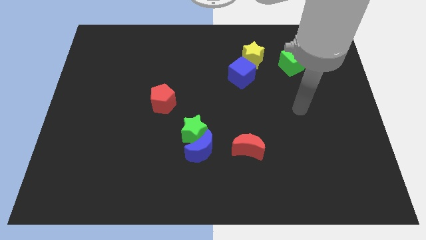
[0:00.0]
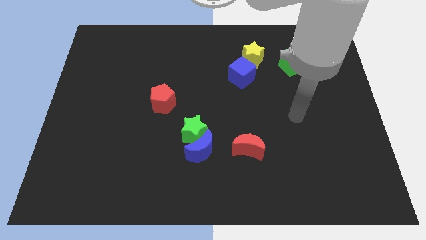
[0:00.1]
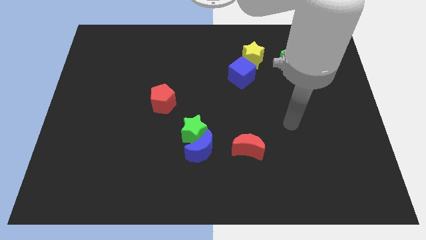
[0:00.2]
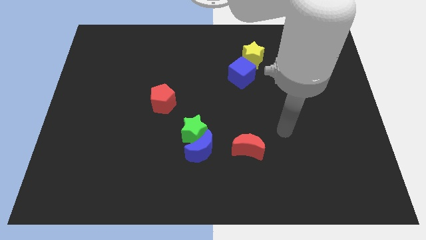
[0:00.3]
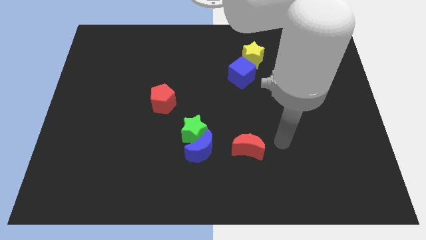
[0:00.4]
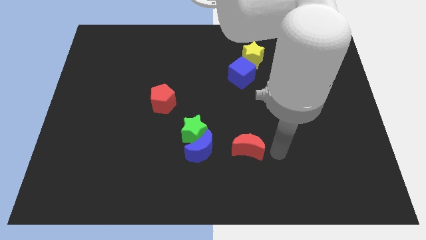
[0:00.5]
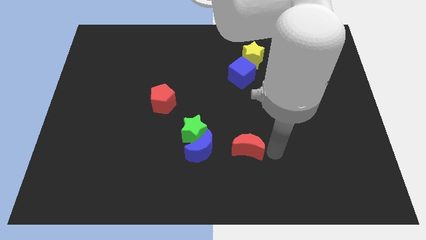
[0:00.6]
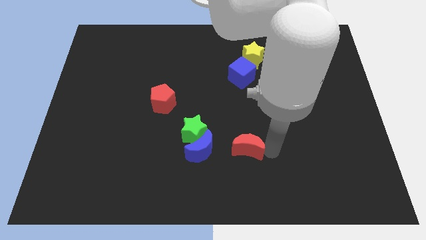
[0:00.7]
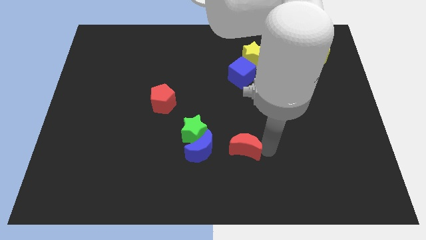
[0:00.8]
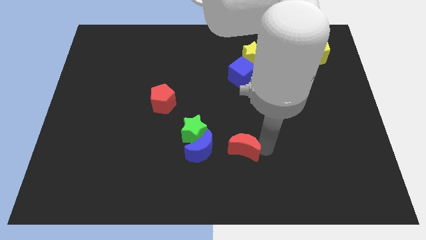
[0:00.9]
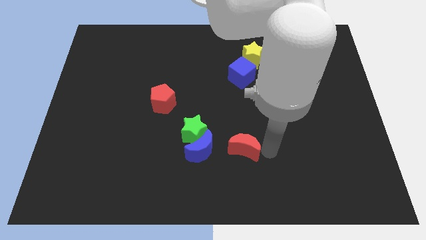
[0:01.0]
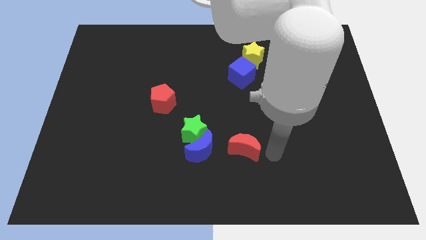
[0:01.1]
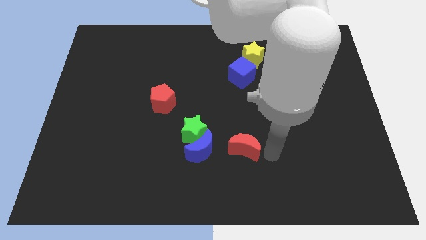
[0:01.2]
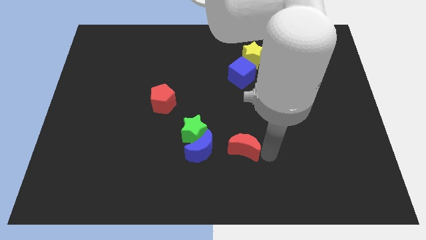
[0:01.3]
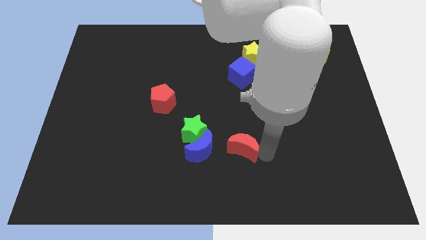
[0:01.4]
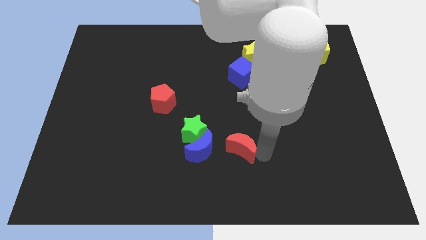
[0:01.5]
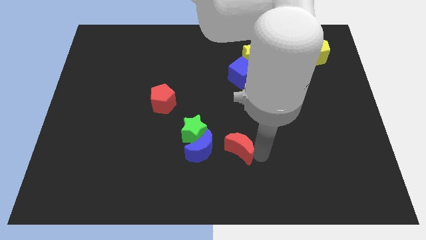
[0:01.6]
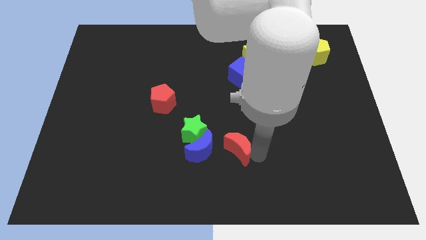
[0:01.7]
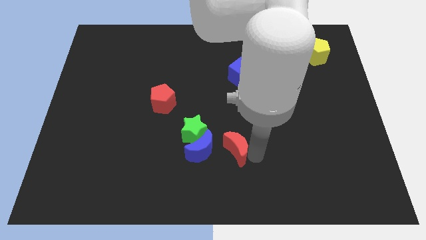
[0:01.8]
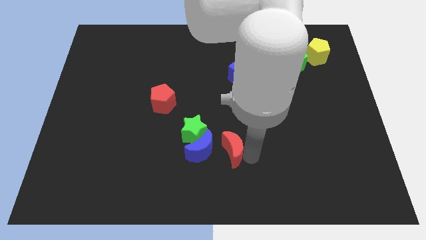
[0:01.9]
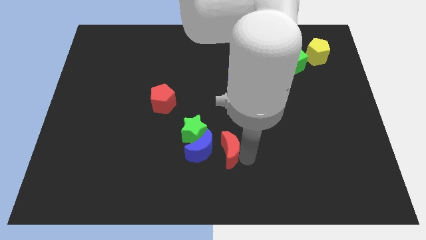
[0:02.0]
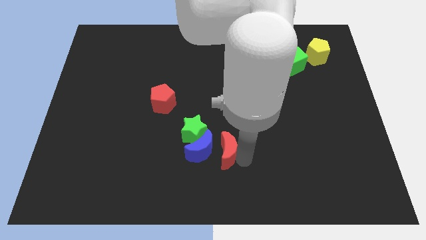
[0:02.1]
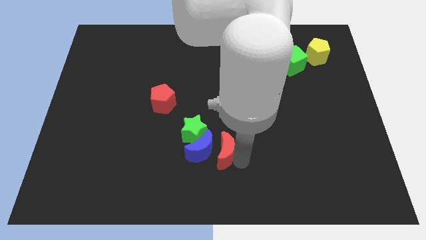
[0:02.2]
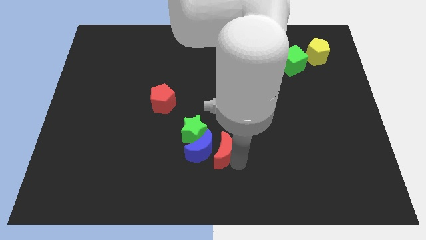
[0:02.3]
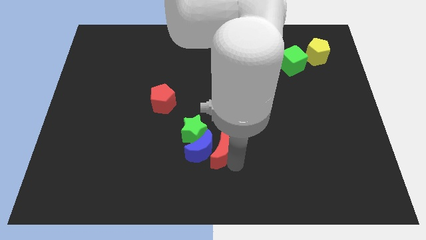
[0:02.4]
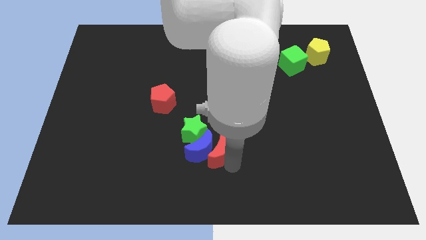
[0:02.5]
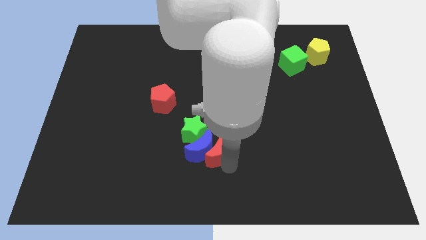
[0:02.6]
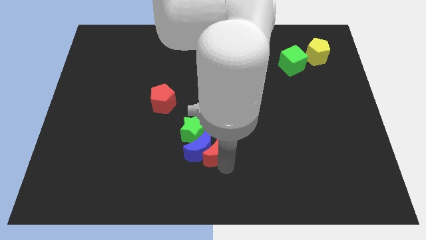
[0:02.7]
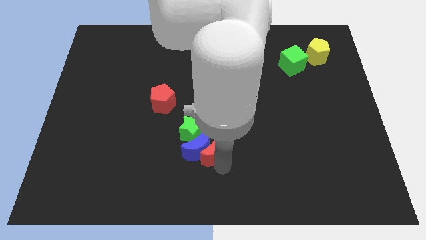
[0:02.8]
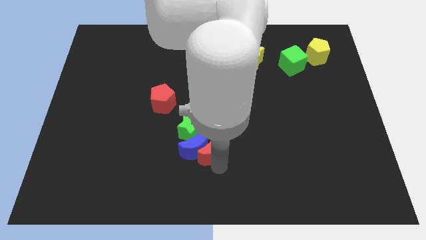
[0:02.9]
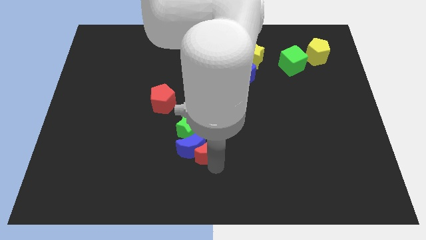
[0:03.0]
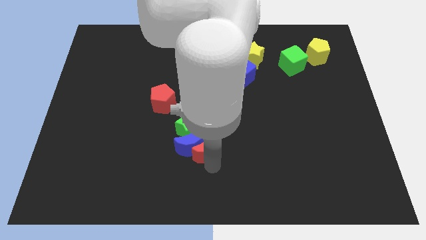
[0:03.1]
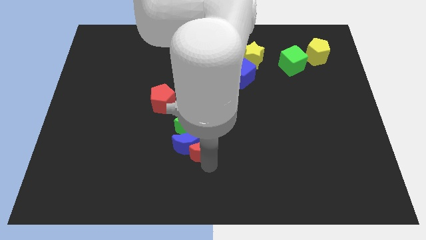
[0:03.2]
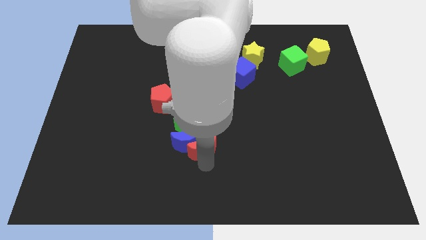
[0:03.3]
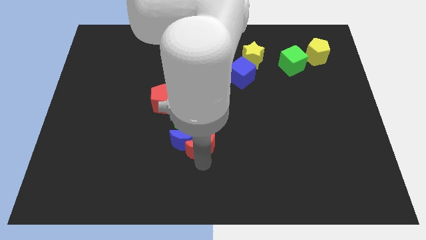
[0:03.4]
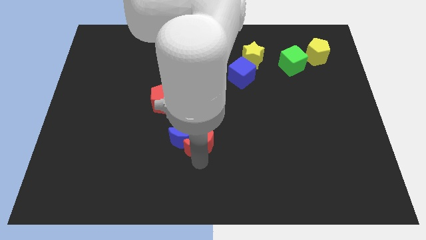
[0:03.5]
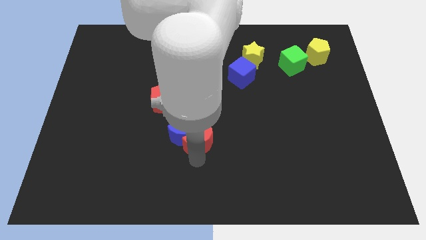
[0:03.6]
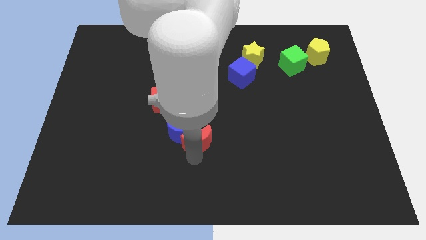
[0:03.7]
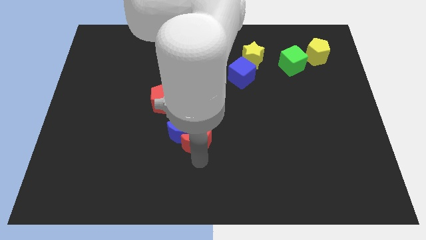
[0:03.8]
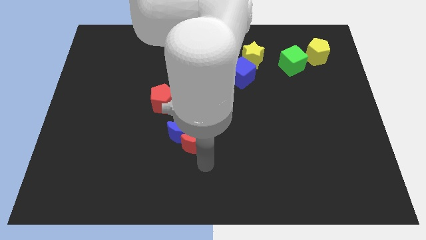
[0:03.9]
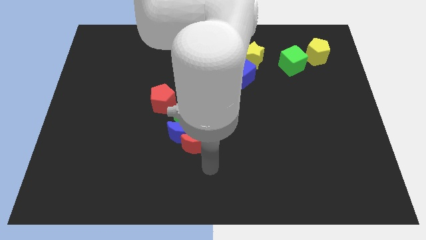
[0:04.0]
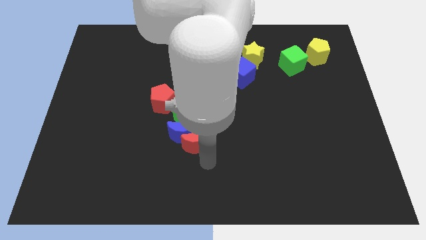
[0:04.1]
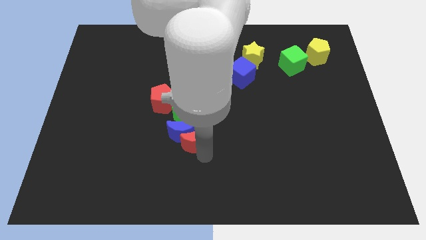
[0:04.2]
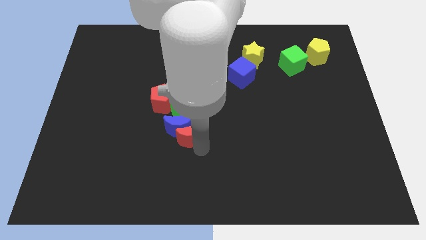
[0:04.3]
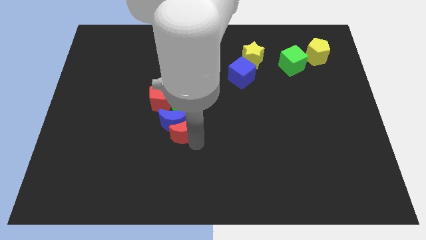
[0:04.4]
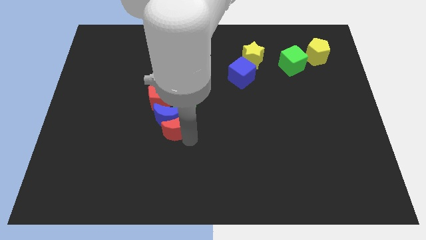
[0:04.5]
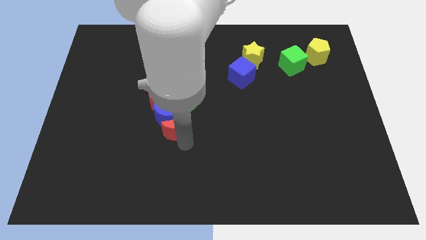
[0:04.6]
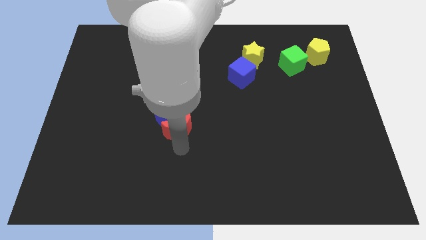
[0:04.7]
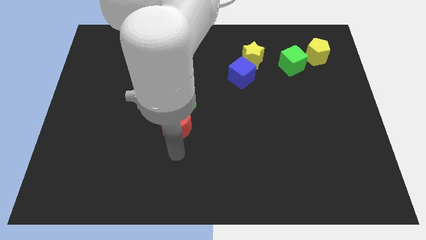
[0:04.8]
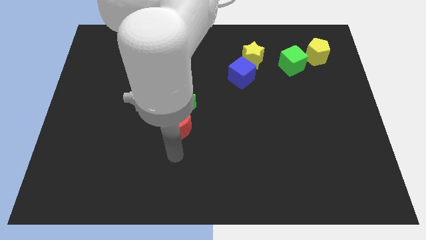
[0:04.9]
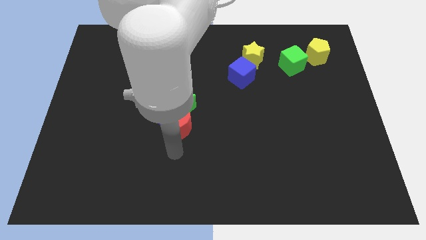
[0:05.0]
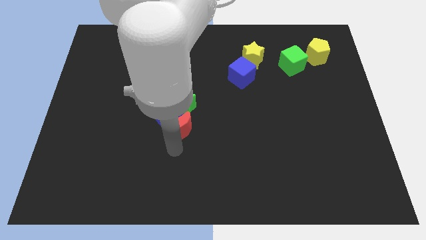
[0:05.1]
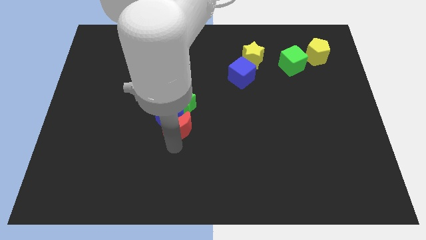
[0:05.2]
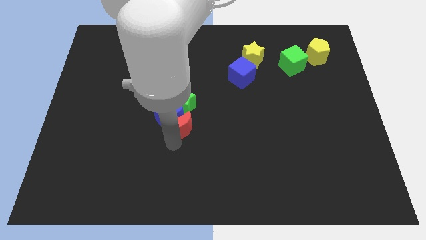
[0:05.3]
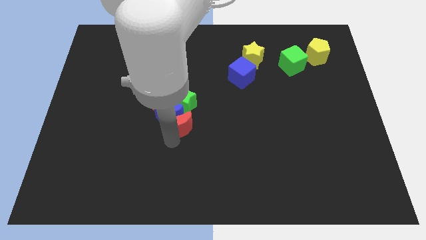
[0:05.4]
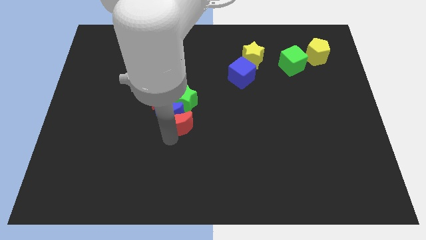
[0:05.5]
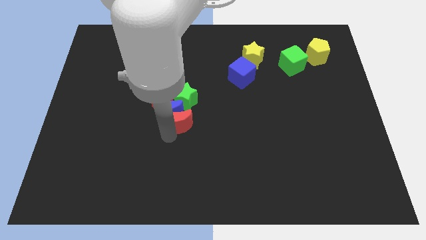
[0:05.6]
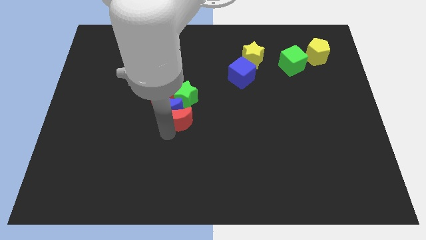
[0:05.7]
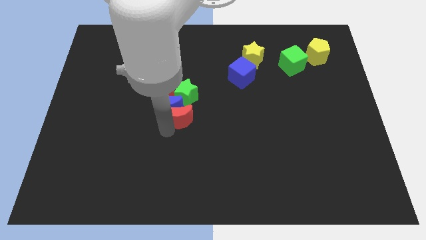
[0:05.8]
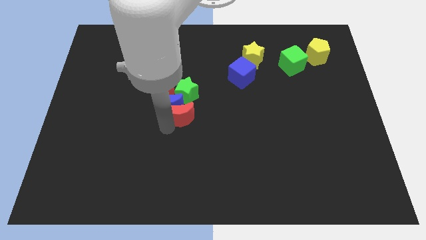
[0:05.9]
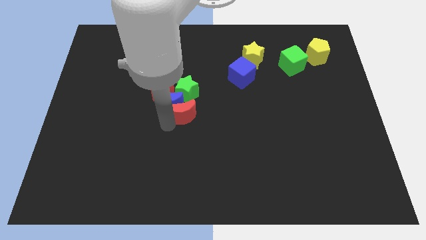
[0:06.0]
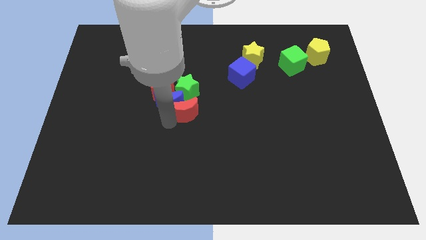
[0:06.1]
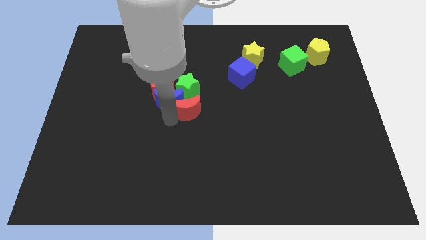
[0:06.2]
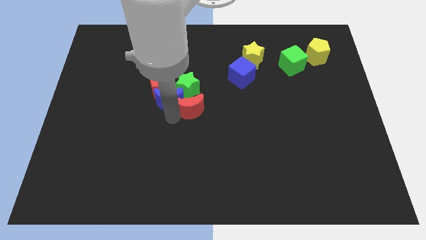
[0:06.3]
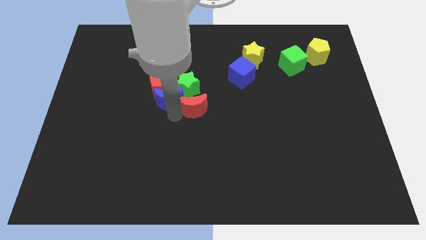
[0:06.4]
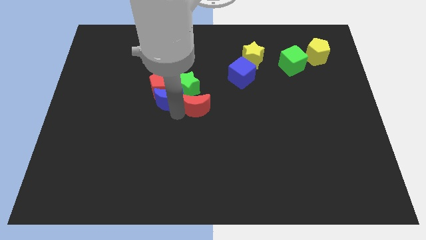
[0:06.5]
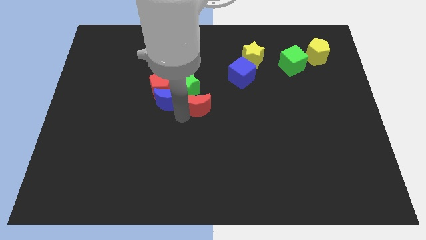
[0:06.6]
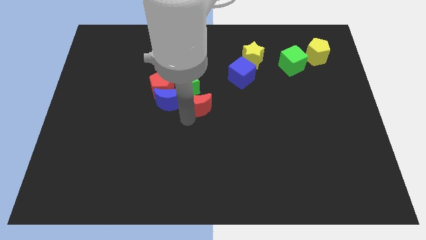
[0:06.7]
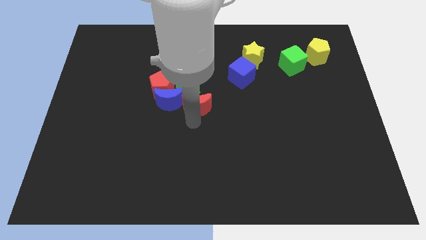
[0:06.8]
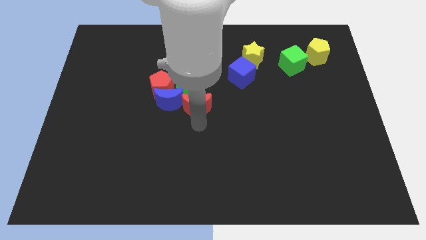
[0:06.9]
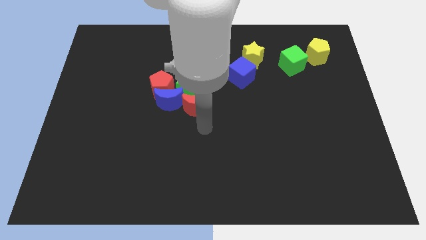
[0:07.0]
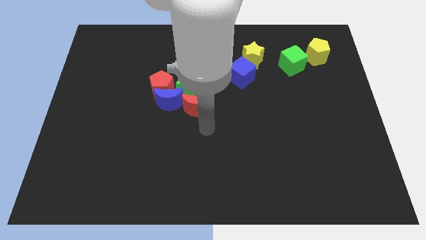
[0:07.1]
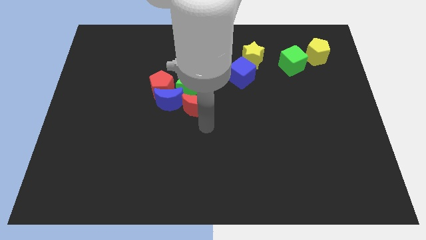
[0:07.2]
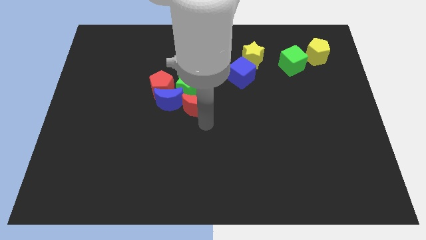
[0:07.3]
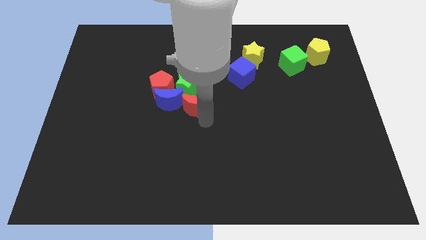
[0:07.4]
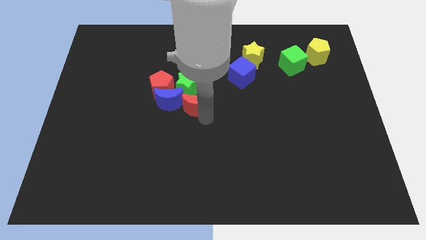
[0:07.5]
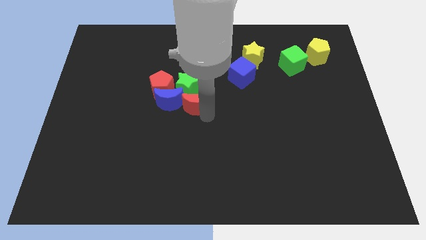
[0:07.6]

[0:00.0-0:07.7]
put the red moon to the green star

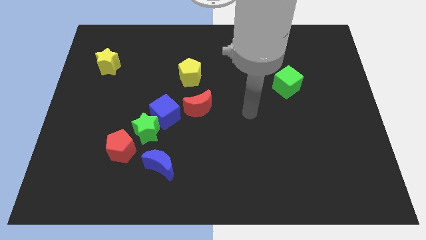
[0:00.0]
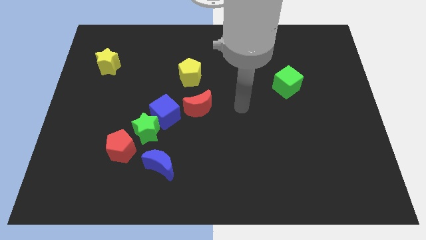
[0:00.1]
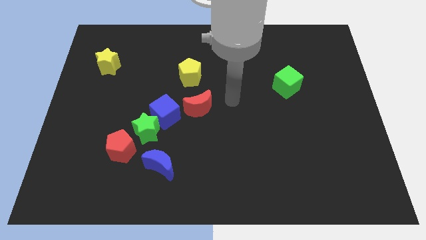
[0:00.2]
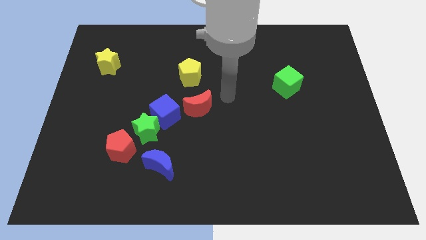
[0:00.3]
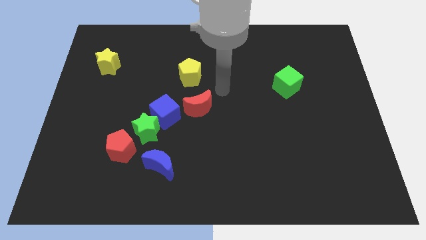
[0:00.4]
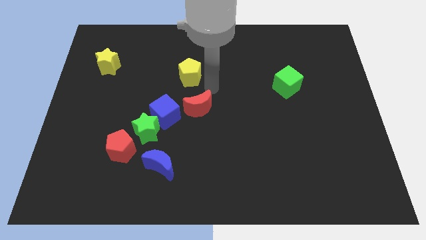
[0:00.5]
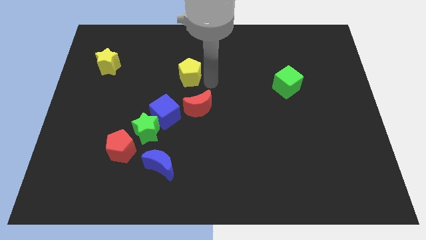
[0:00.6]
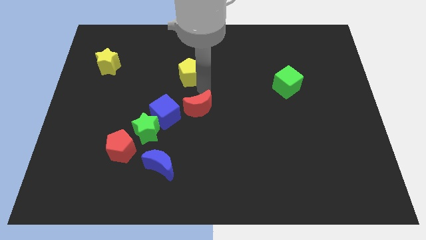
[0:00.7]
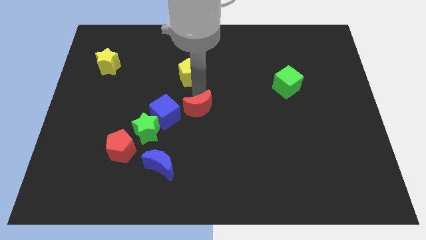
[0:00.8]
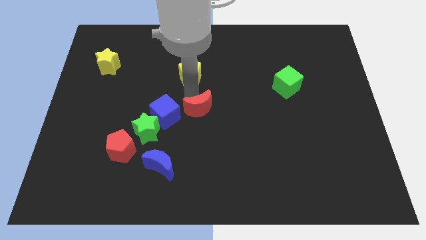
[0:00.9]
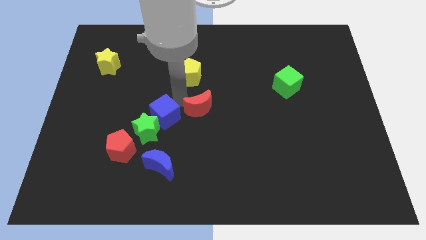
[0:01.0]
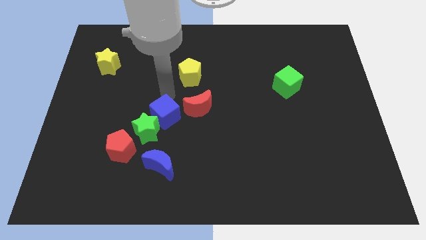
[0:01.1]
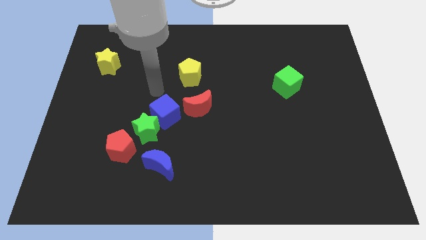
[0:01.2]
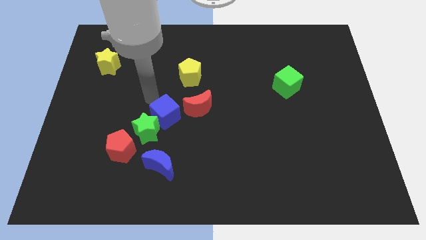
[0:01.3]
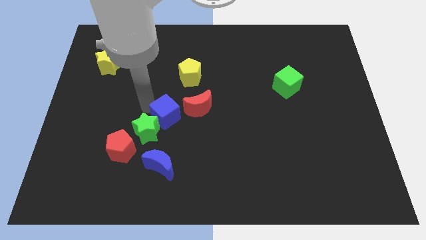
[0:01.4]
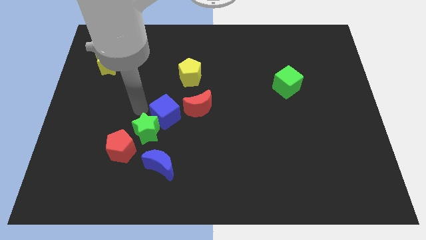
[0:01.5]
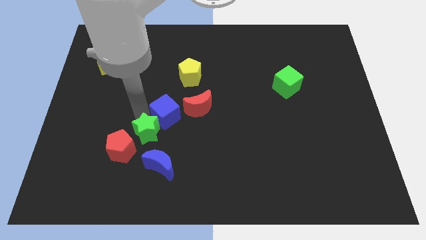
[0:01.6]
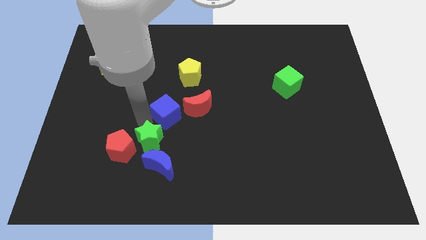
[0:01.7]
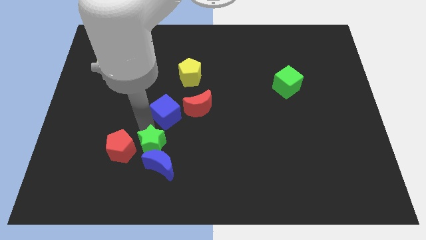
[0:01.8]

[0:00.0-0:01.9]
put the green star close to the blue moon
